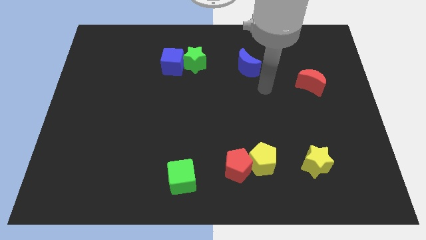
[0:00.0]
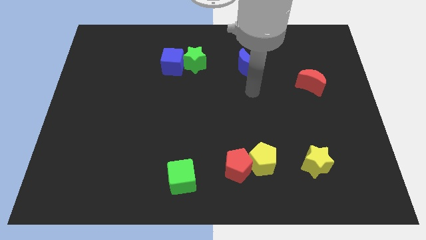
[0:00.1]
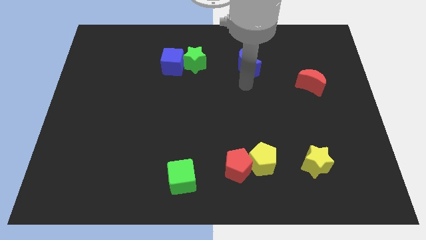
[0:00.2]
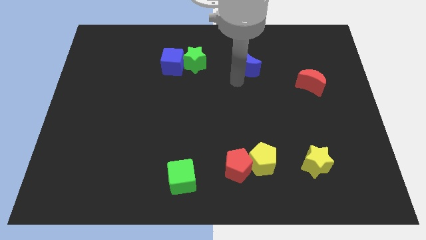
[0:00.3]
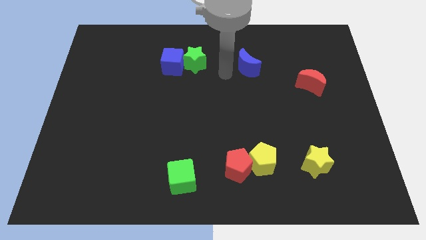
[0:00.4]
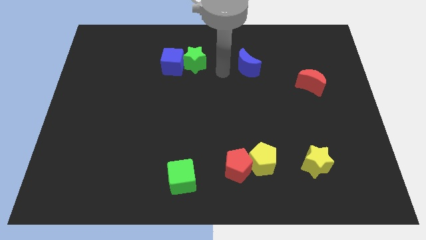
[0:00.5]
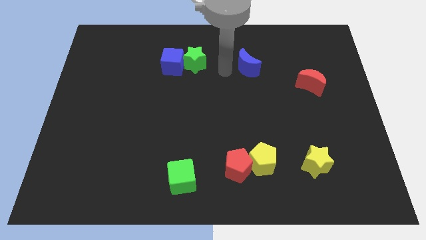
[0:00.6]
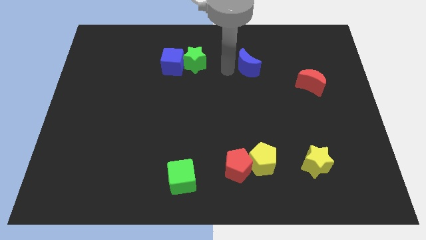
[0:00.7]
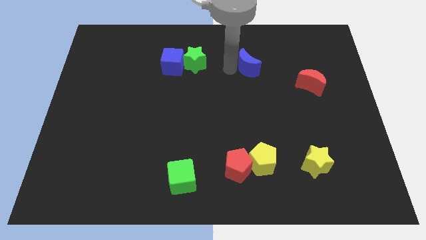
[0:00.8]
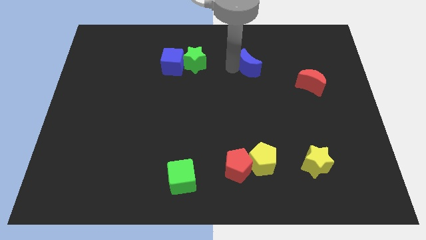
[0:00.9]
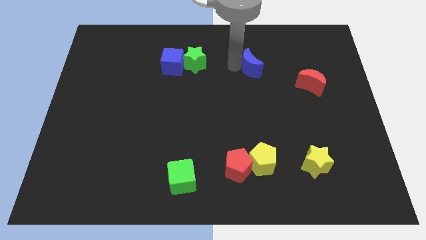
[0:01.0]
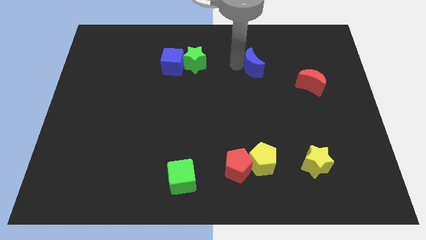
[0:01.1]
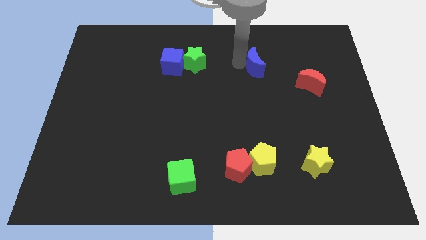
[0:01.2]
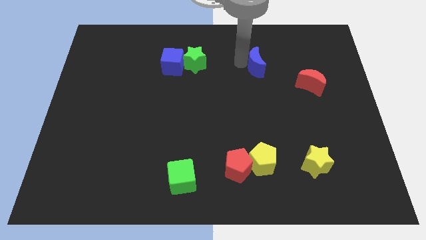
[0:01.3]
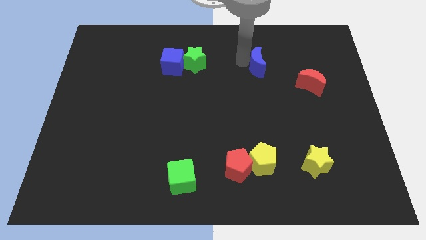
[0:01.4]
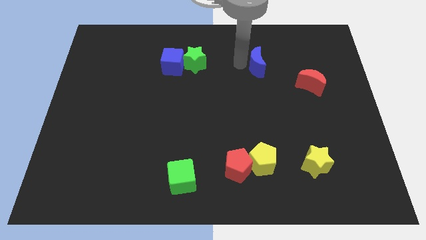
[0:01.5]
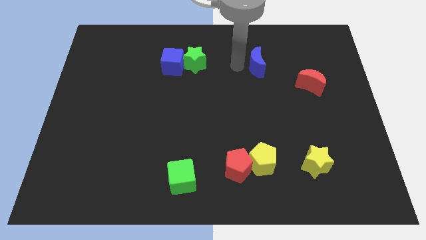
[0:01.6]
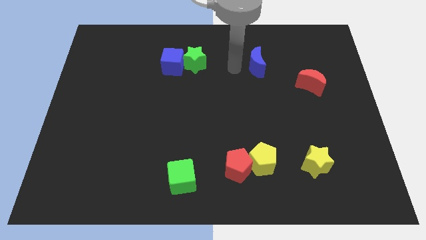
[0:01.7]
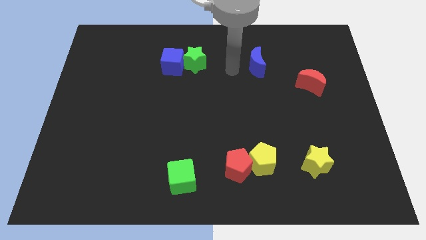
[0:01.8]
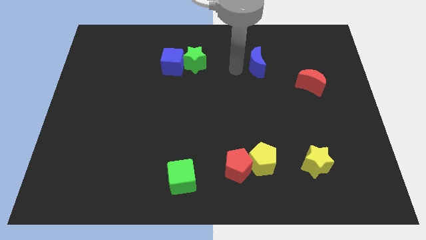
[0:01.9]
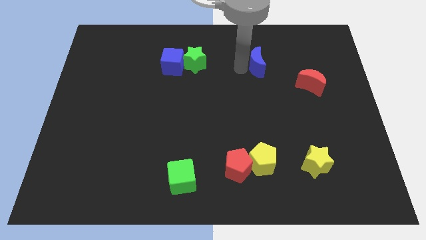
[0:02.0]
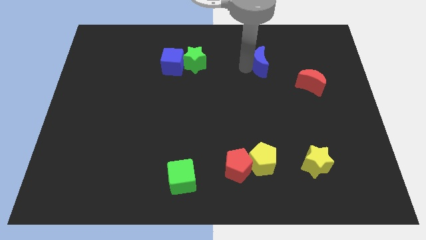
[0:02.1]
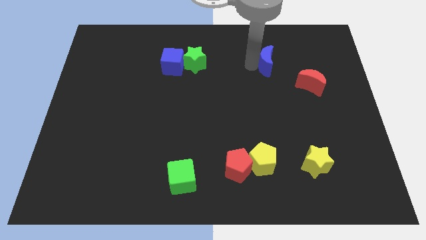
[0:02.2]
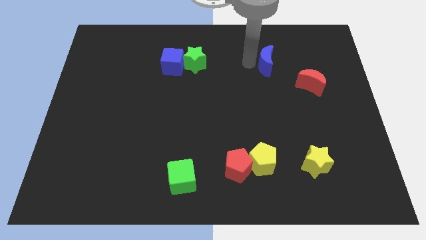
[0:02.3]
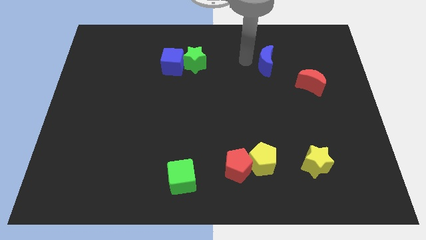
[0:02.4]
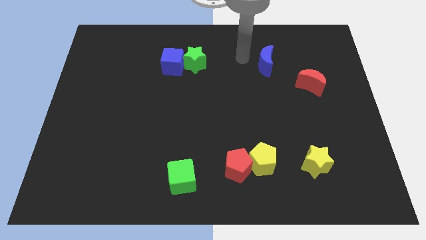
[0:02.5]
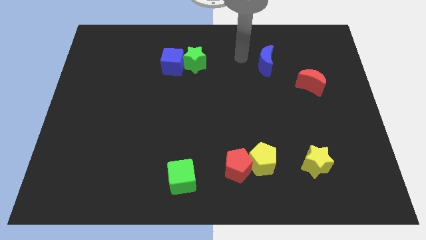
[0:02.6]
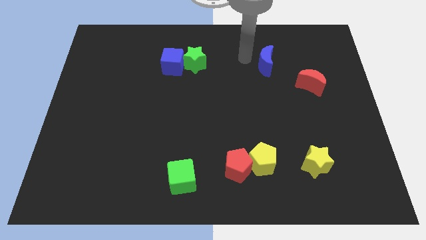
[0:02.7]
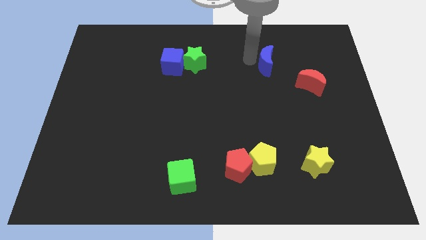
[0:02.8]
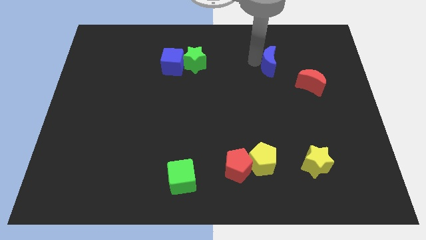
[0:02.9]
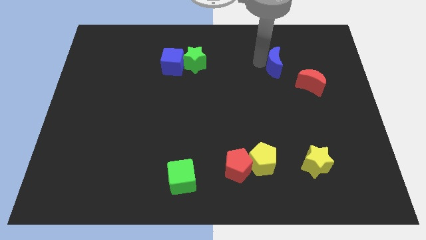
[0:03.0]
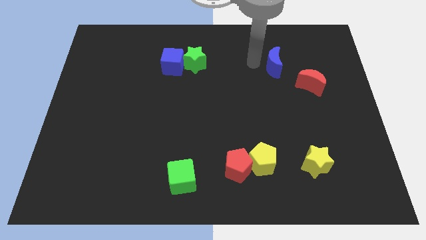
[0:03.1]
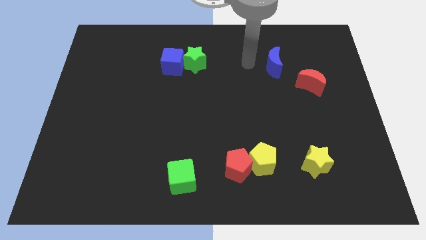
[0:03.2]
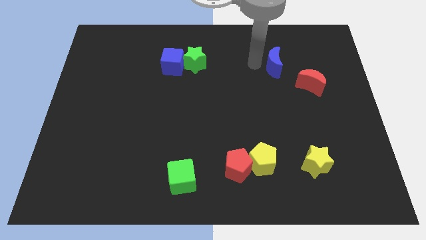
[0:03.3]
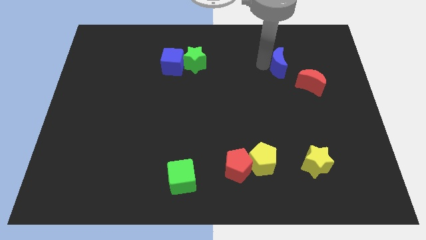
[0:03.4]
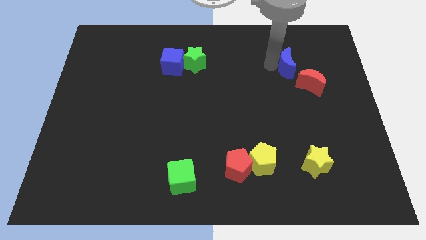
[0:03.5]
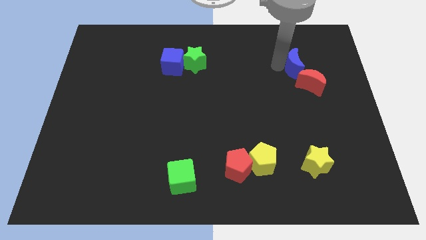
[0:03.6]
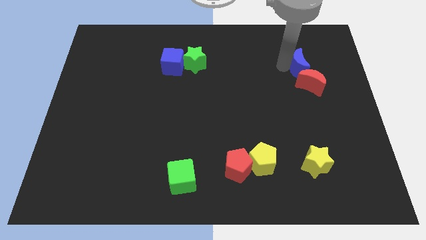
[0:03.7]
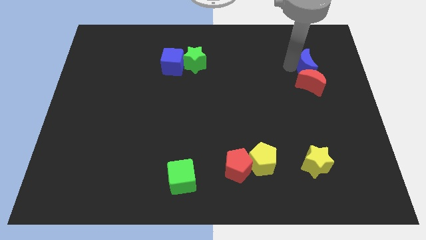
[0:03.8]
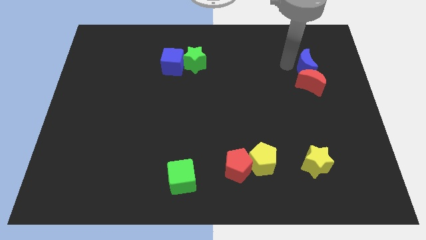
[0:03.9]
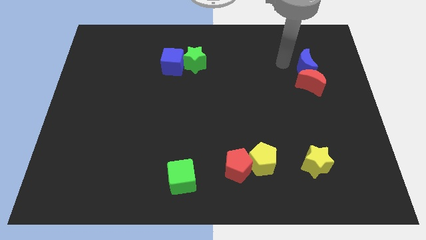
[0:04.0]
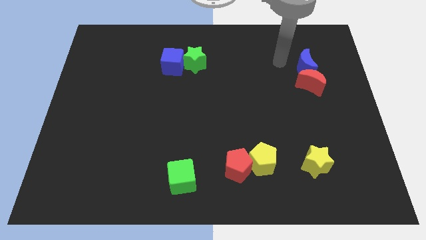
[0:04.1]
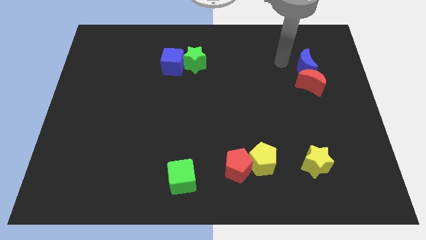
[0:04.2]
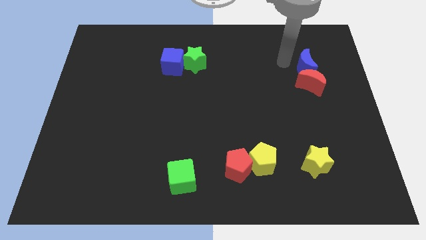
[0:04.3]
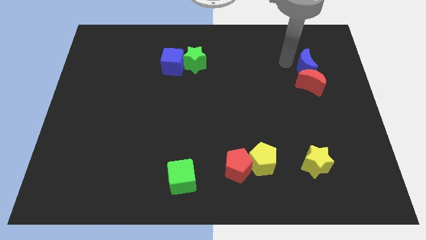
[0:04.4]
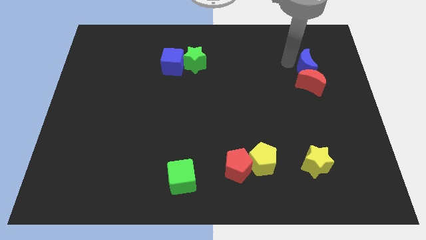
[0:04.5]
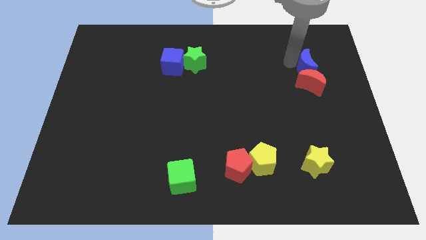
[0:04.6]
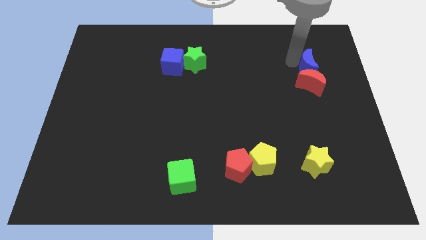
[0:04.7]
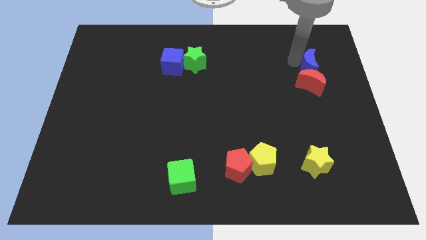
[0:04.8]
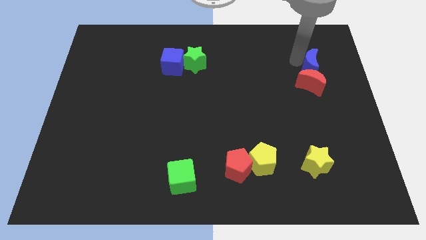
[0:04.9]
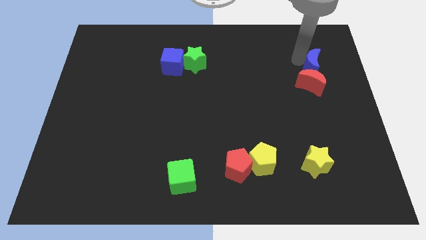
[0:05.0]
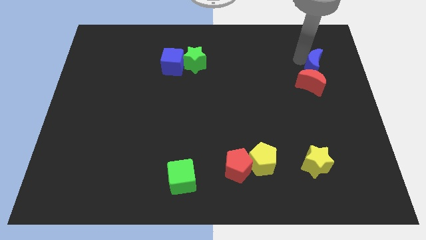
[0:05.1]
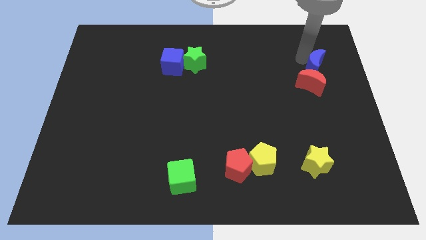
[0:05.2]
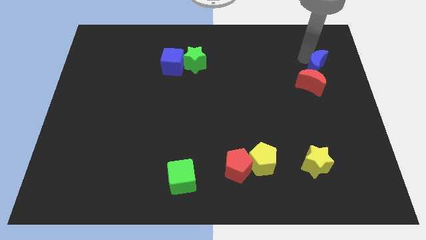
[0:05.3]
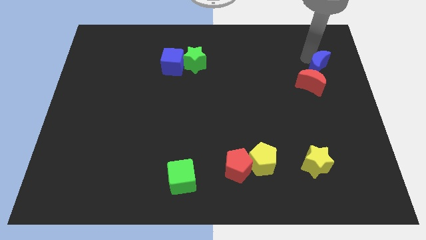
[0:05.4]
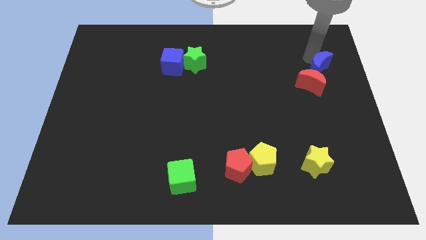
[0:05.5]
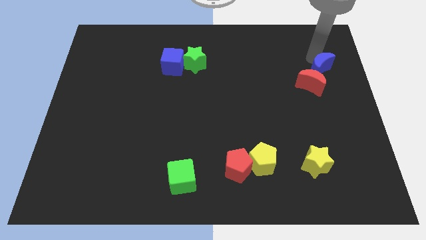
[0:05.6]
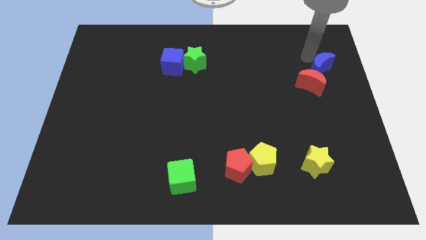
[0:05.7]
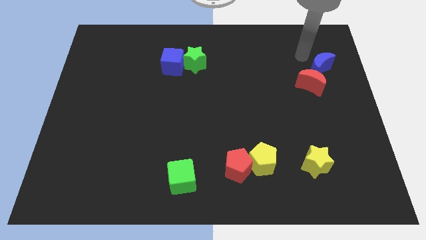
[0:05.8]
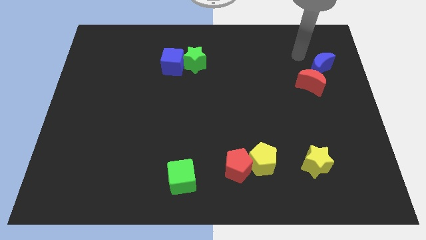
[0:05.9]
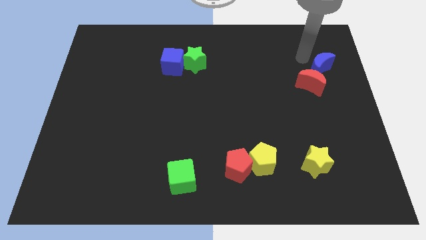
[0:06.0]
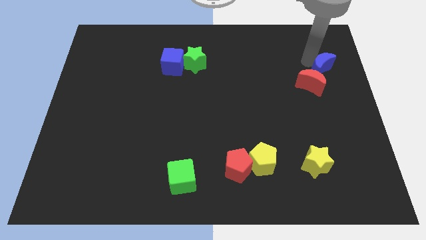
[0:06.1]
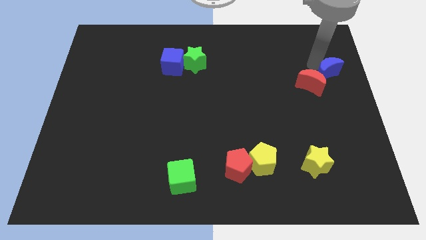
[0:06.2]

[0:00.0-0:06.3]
slide the blue moon to the right side of the board
